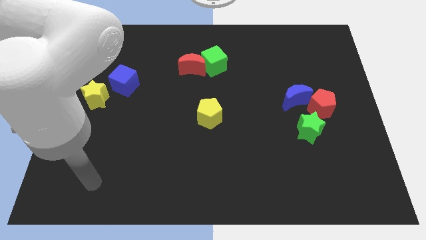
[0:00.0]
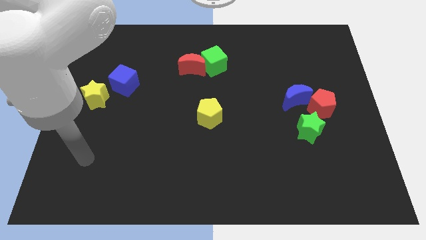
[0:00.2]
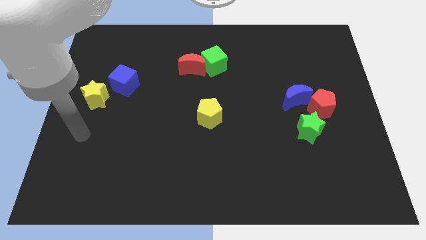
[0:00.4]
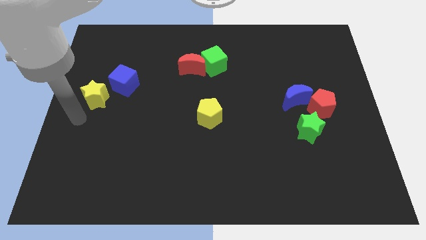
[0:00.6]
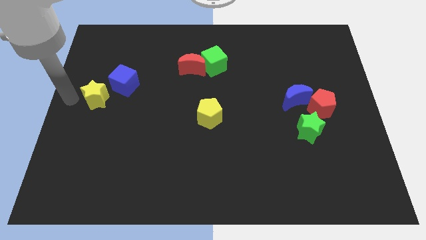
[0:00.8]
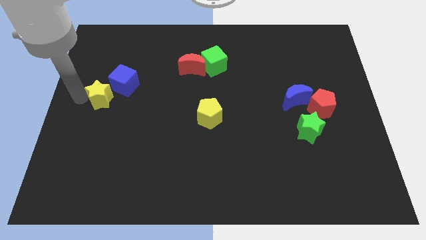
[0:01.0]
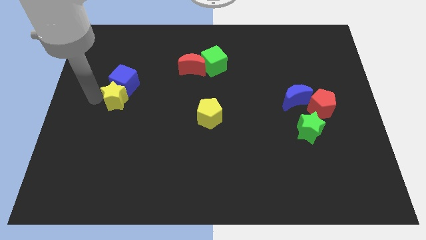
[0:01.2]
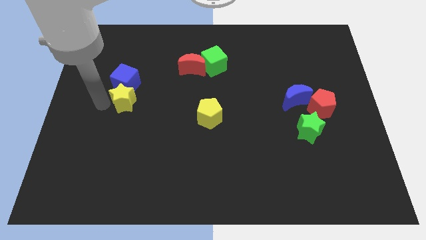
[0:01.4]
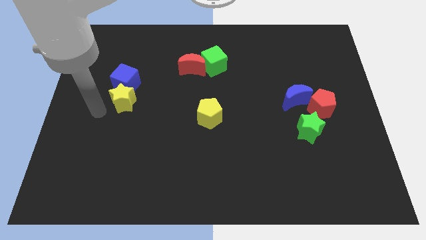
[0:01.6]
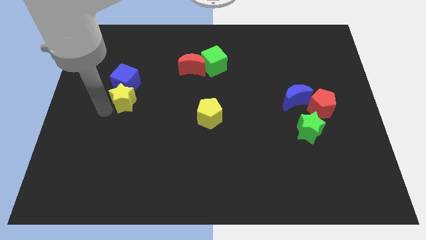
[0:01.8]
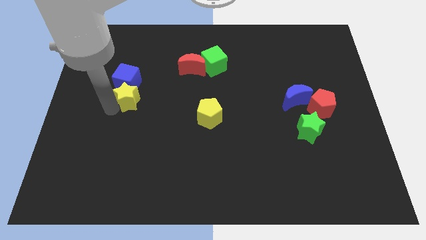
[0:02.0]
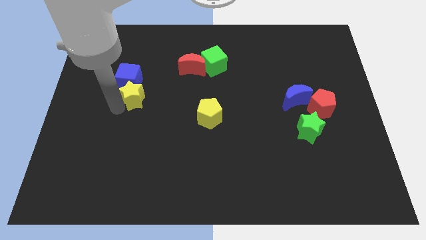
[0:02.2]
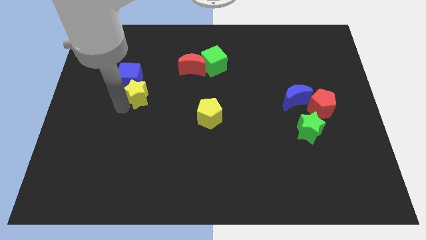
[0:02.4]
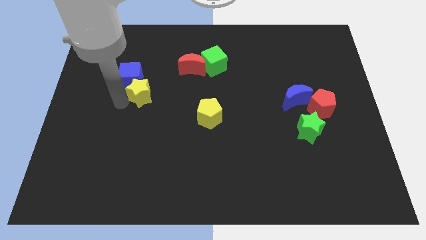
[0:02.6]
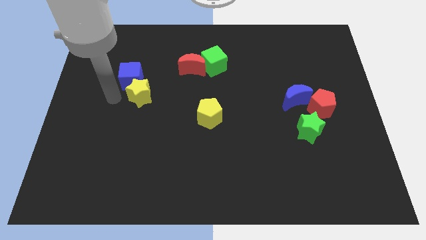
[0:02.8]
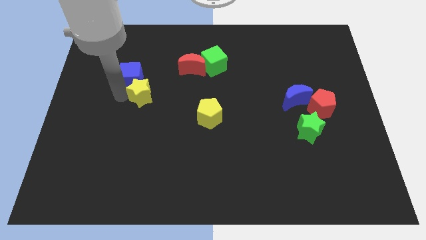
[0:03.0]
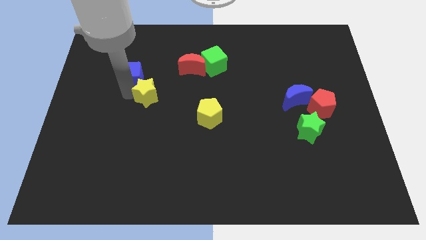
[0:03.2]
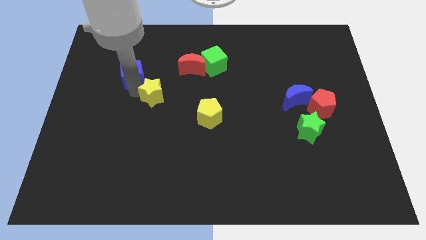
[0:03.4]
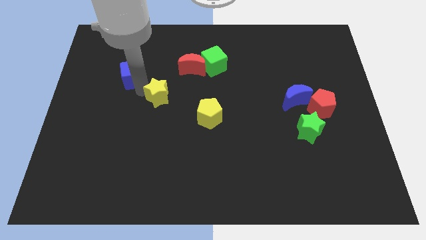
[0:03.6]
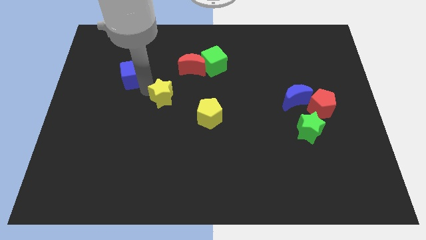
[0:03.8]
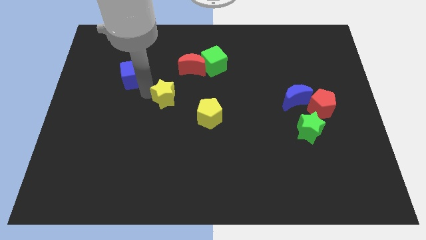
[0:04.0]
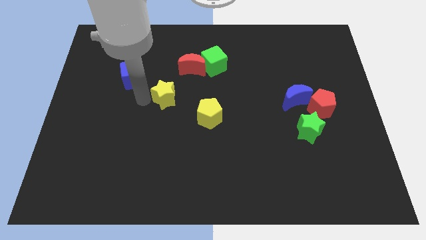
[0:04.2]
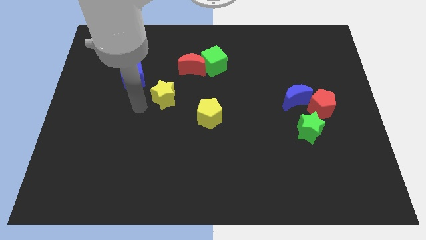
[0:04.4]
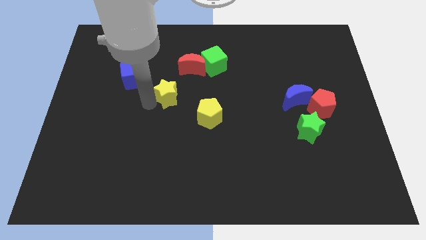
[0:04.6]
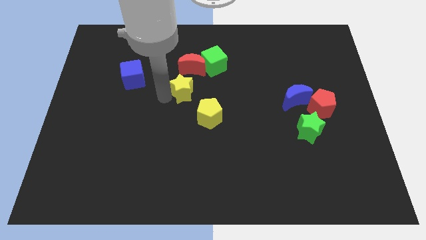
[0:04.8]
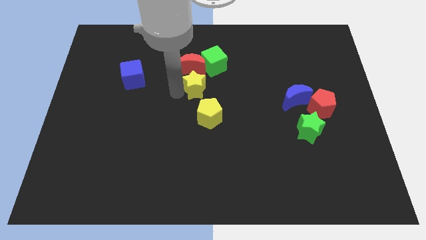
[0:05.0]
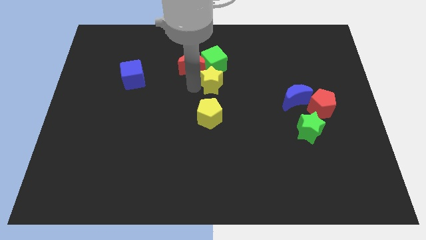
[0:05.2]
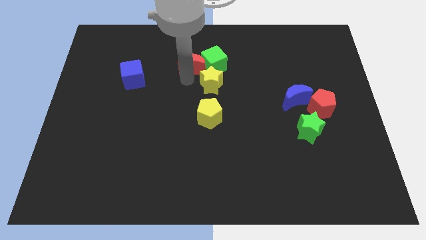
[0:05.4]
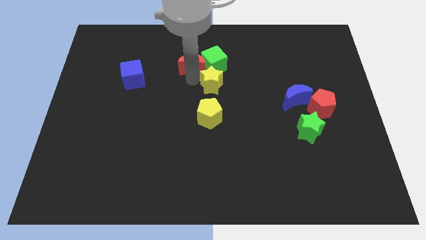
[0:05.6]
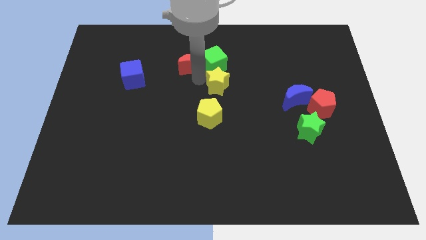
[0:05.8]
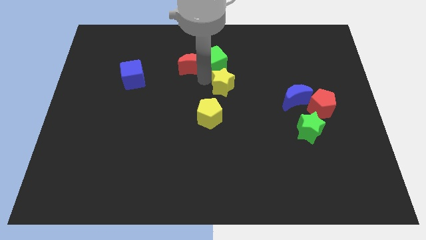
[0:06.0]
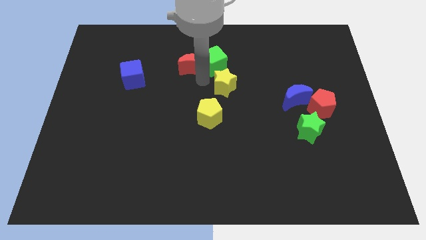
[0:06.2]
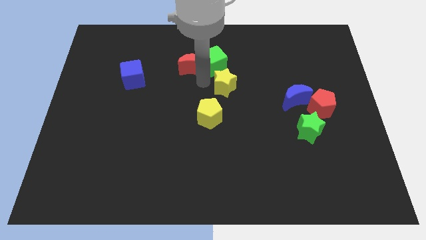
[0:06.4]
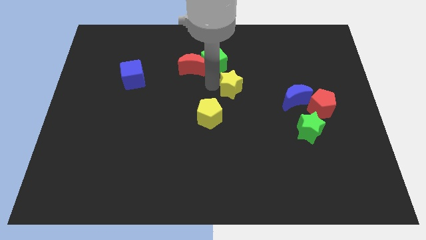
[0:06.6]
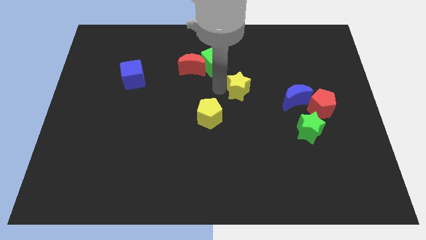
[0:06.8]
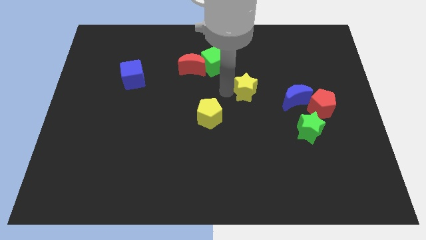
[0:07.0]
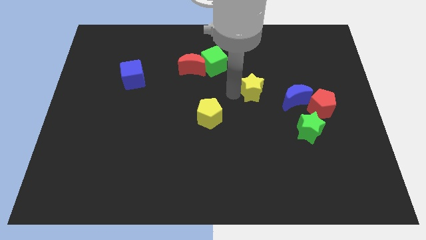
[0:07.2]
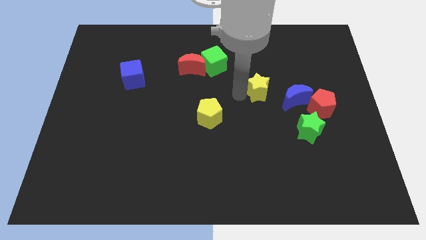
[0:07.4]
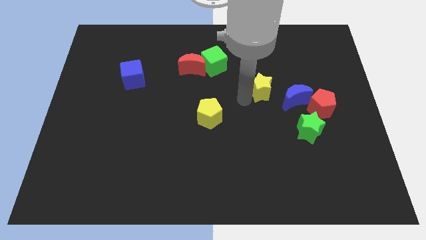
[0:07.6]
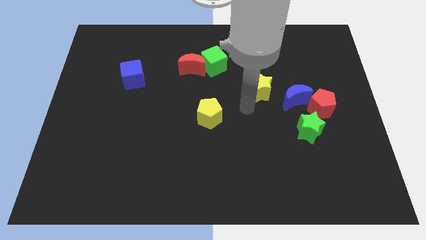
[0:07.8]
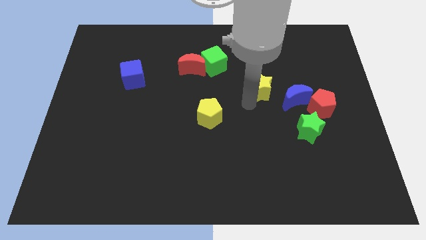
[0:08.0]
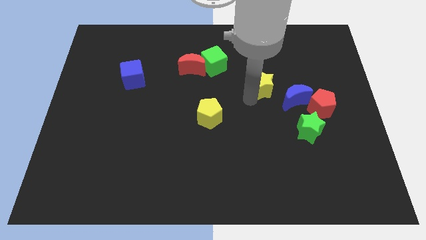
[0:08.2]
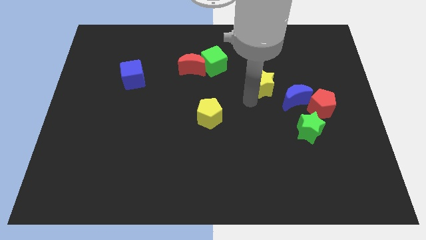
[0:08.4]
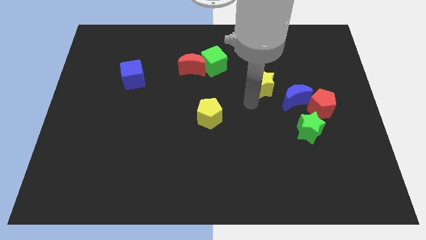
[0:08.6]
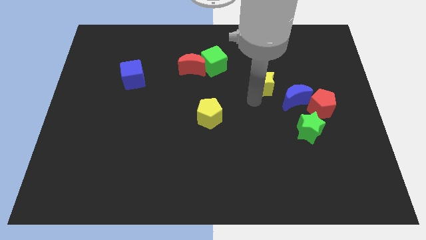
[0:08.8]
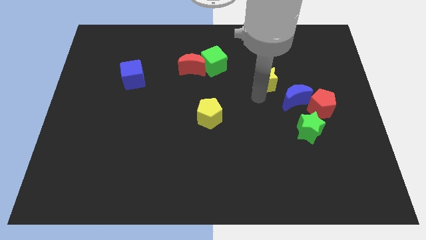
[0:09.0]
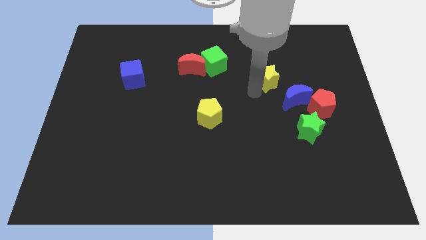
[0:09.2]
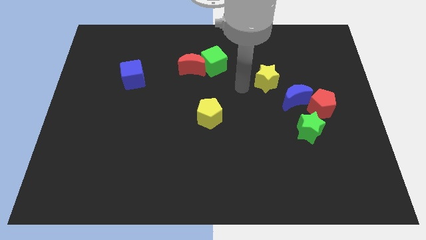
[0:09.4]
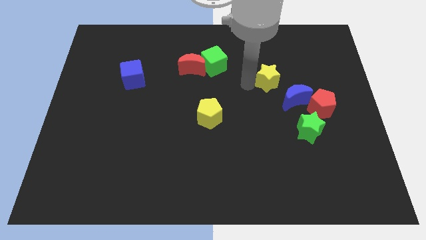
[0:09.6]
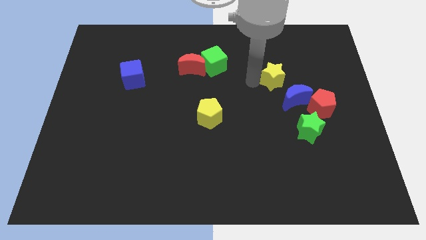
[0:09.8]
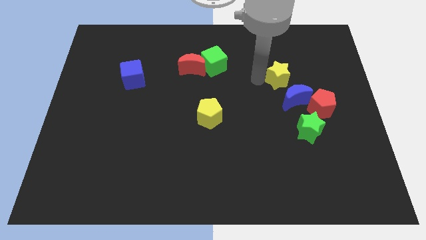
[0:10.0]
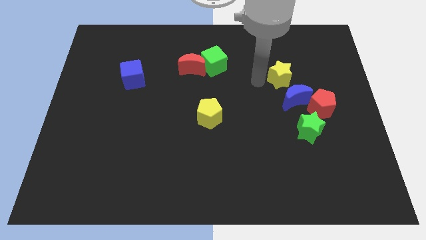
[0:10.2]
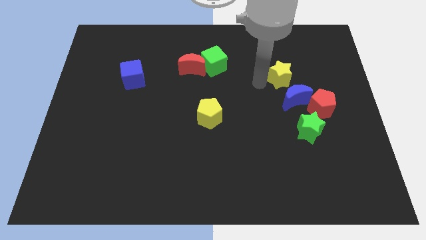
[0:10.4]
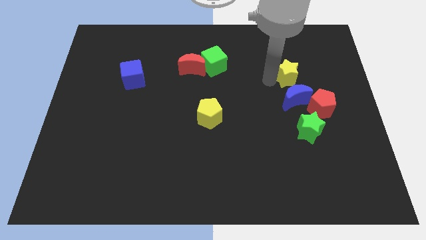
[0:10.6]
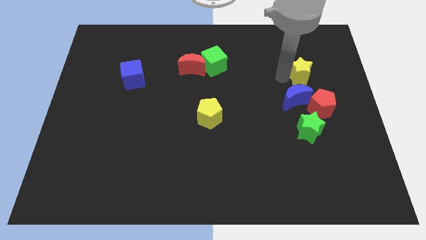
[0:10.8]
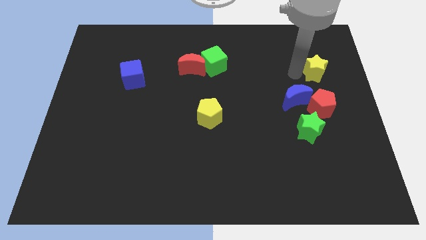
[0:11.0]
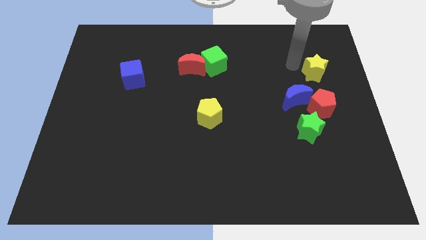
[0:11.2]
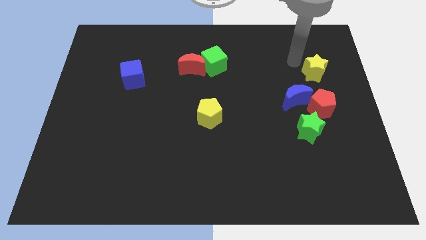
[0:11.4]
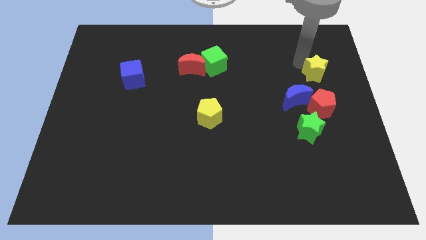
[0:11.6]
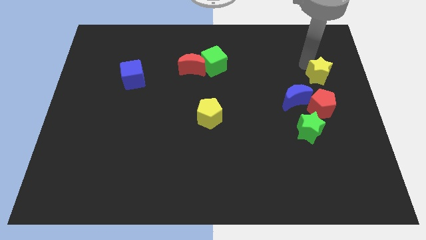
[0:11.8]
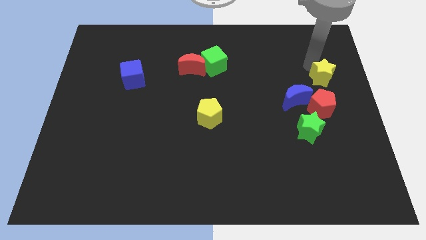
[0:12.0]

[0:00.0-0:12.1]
move the yellow star to the right side of the board

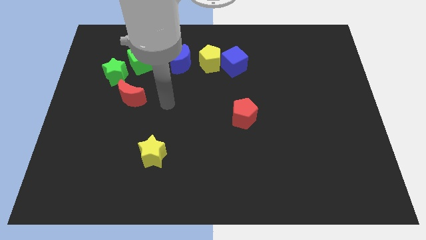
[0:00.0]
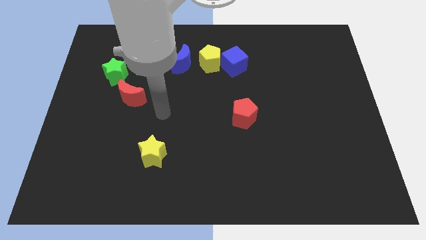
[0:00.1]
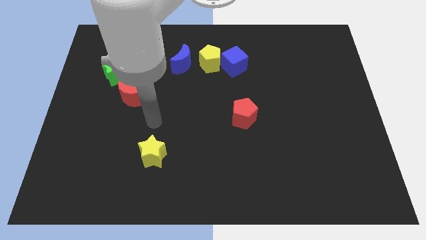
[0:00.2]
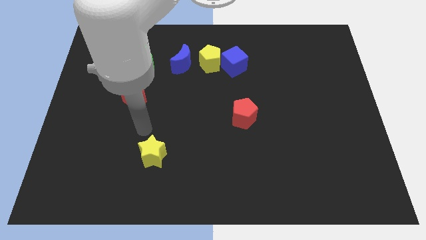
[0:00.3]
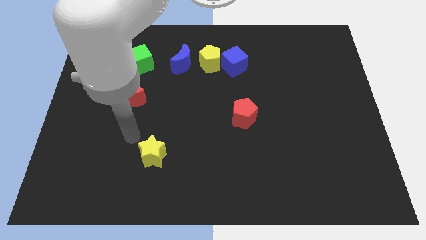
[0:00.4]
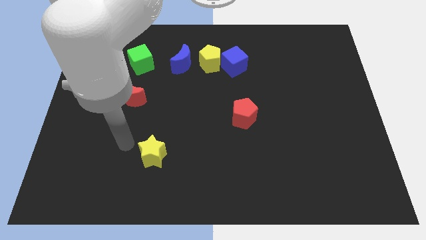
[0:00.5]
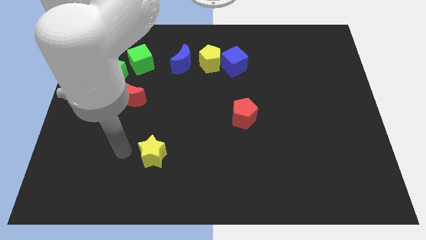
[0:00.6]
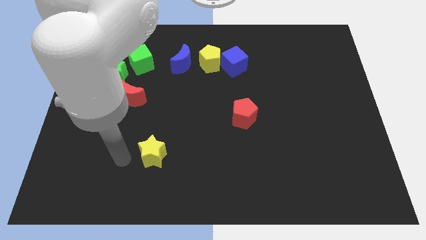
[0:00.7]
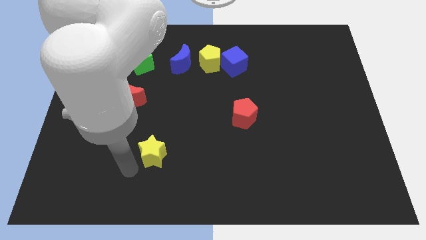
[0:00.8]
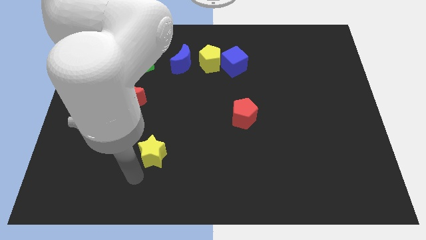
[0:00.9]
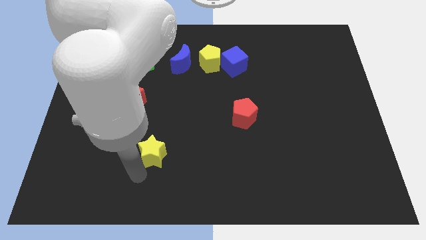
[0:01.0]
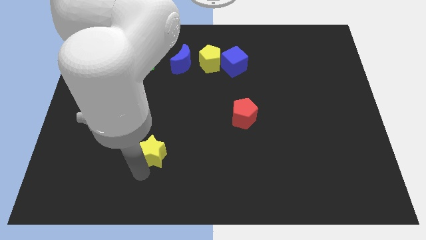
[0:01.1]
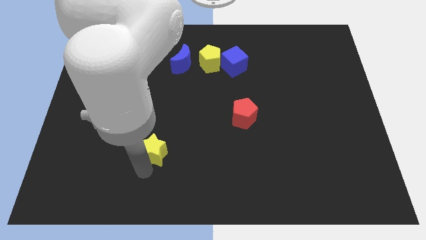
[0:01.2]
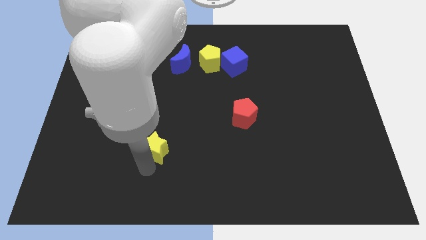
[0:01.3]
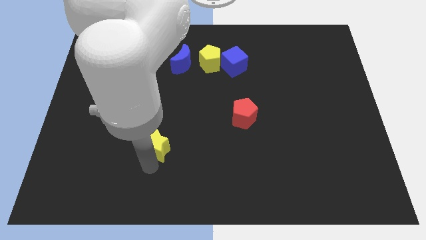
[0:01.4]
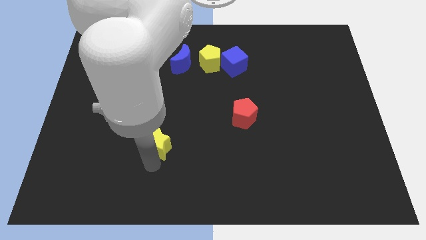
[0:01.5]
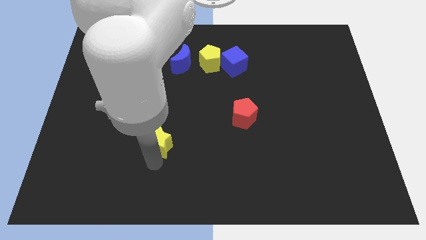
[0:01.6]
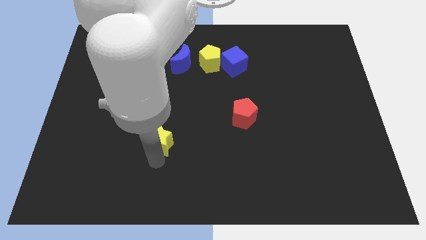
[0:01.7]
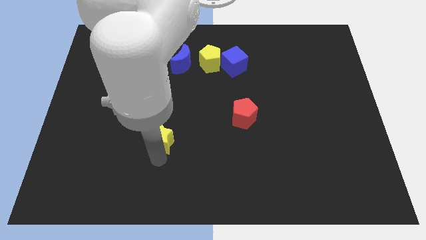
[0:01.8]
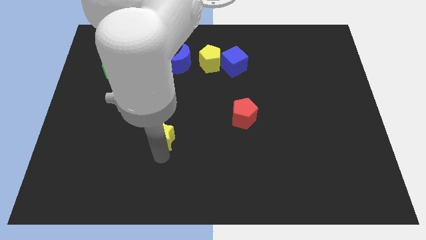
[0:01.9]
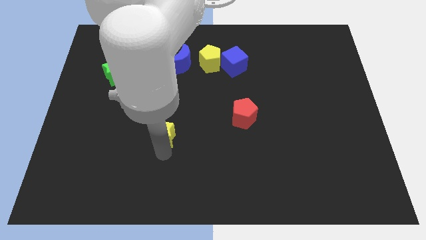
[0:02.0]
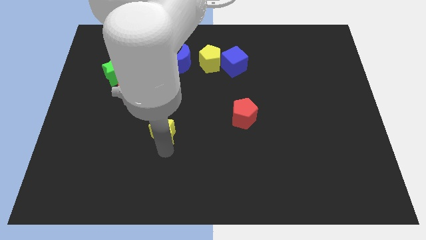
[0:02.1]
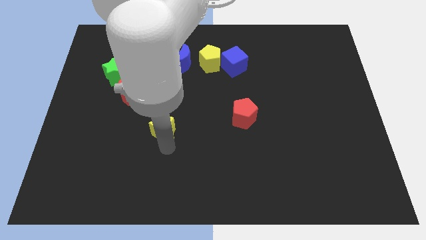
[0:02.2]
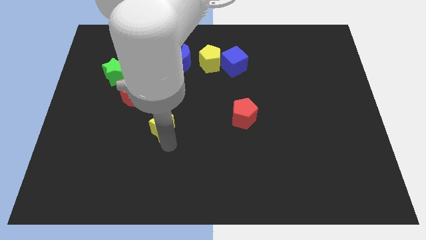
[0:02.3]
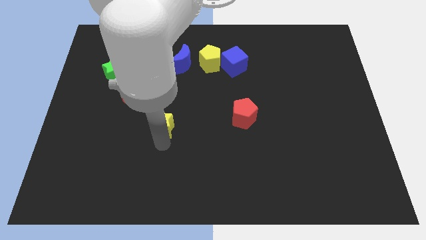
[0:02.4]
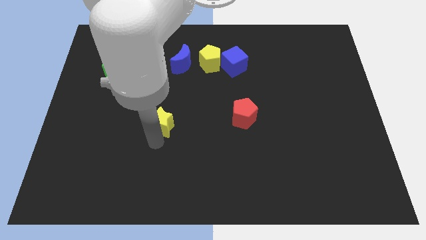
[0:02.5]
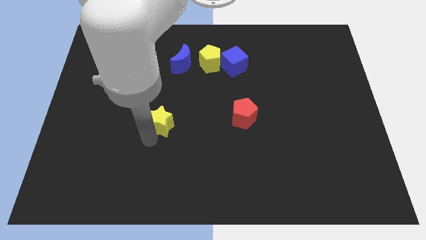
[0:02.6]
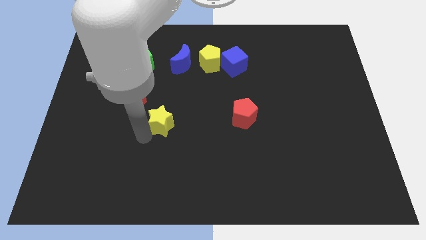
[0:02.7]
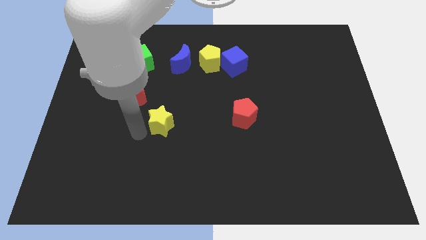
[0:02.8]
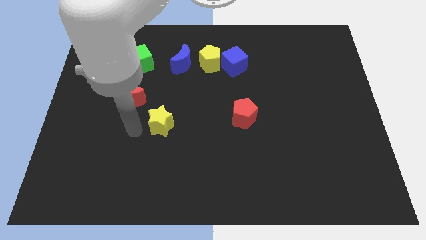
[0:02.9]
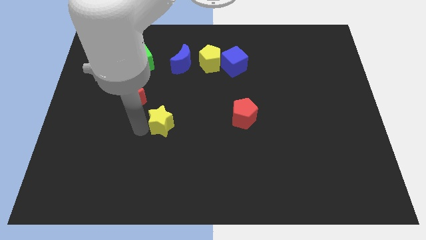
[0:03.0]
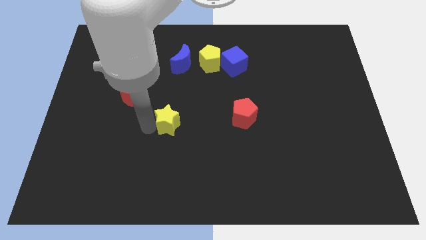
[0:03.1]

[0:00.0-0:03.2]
push the yellow star to the center
